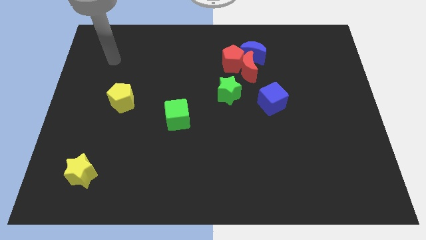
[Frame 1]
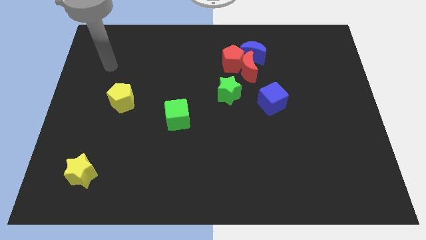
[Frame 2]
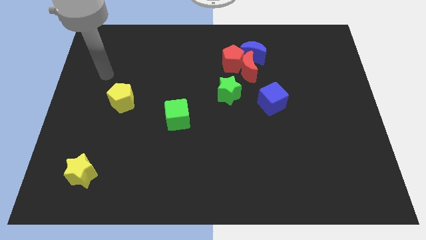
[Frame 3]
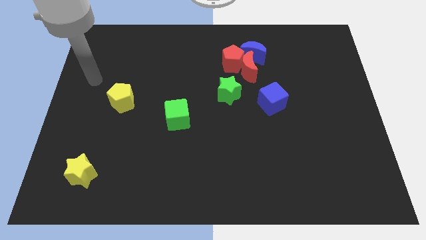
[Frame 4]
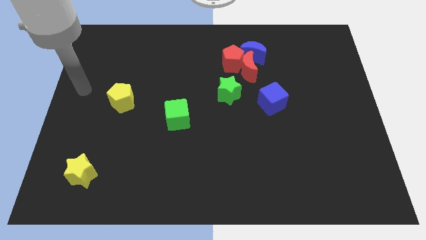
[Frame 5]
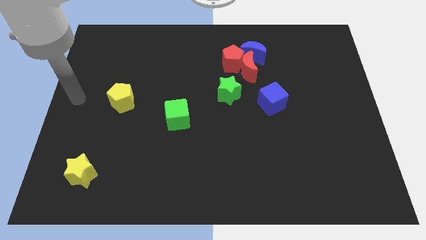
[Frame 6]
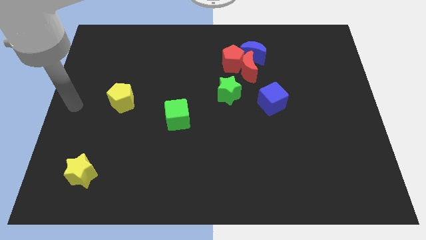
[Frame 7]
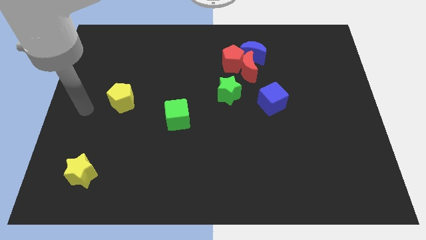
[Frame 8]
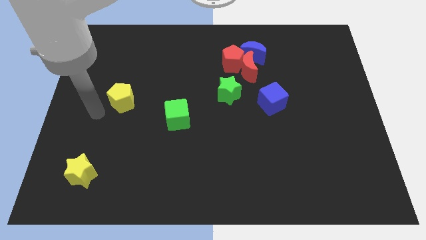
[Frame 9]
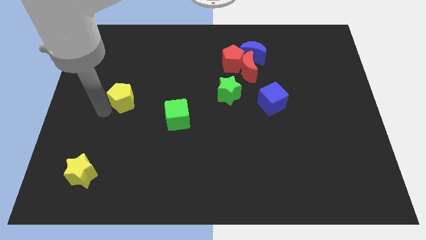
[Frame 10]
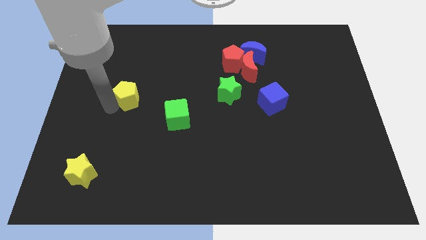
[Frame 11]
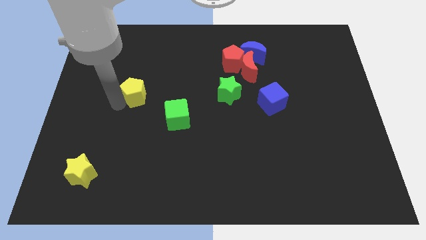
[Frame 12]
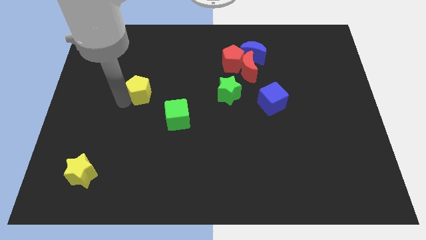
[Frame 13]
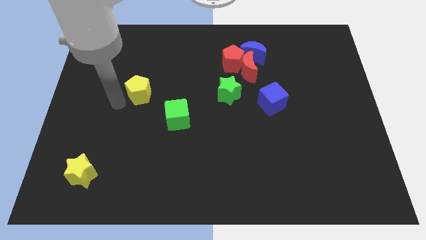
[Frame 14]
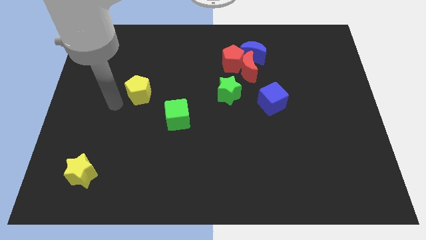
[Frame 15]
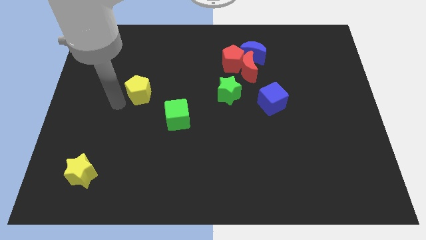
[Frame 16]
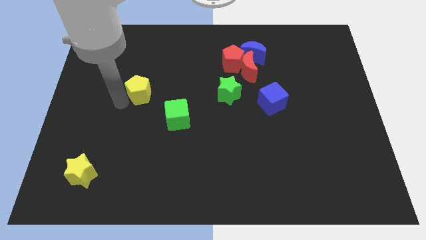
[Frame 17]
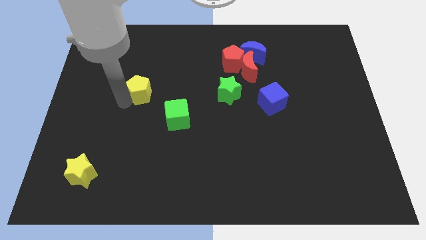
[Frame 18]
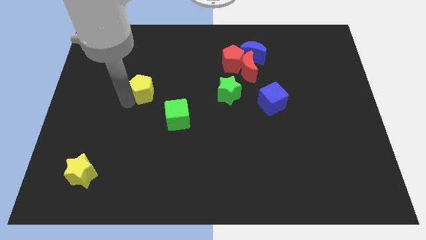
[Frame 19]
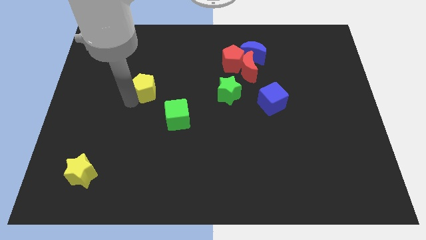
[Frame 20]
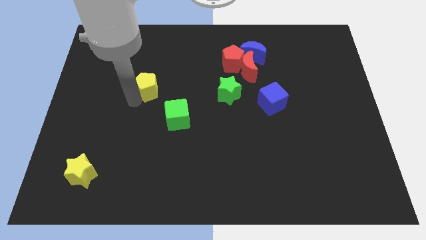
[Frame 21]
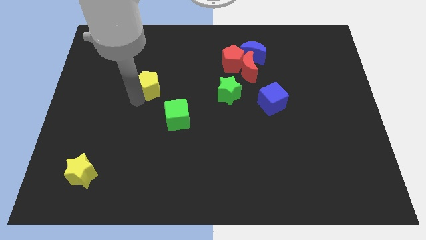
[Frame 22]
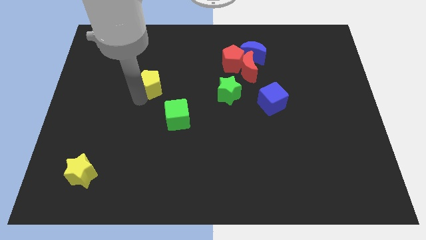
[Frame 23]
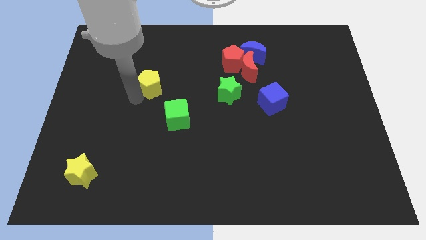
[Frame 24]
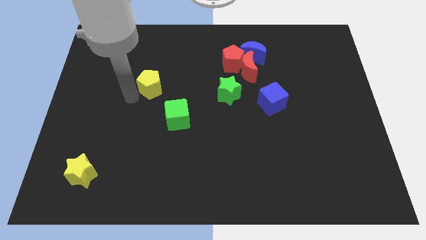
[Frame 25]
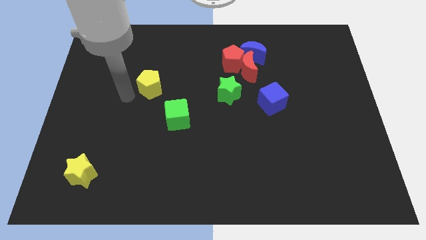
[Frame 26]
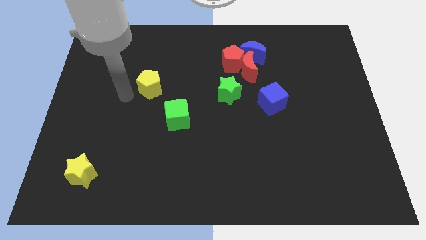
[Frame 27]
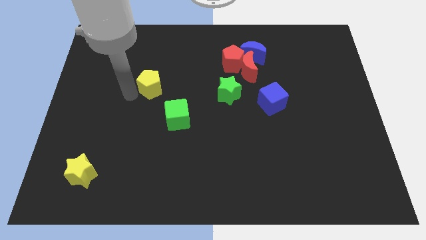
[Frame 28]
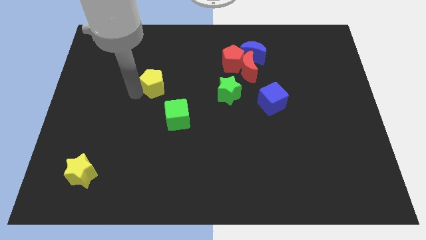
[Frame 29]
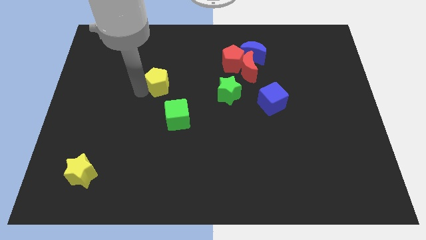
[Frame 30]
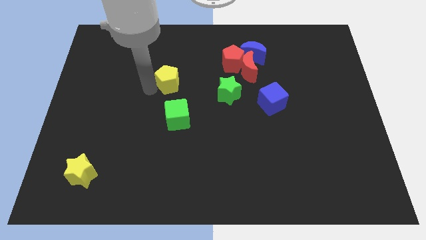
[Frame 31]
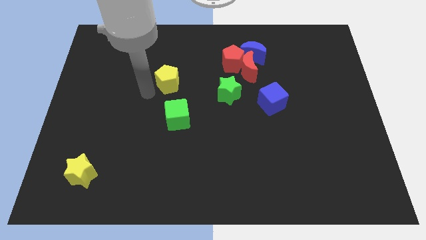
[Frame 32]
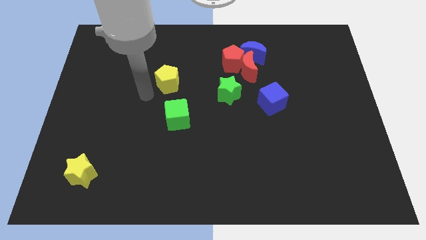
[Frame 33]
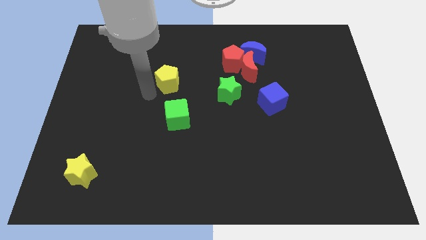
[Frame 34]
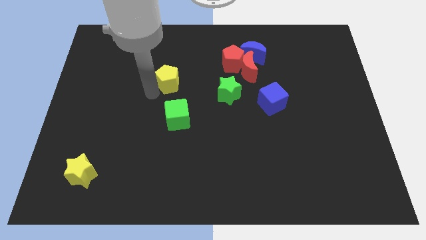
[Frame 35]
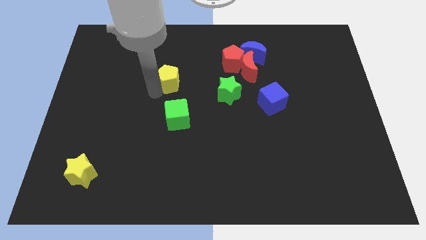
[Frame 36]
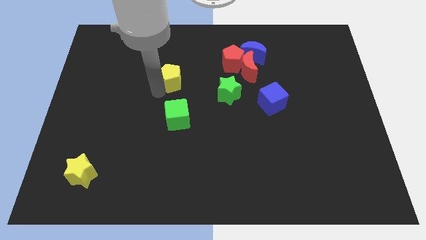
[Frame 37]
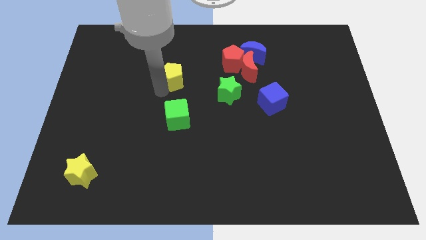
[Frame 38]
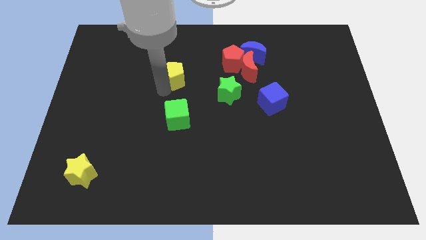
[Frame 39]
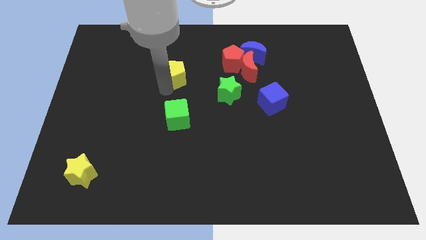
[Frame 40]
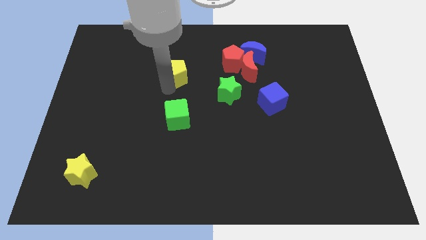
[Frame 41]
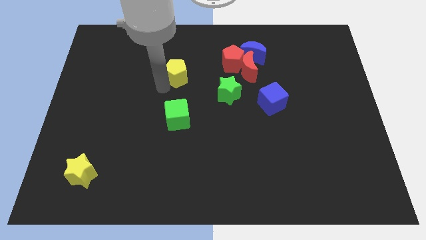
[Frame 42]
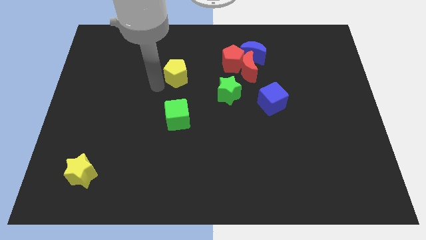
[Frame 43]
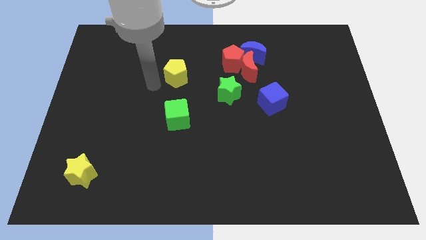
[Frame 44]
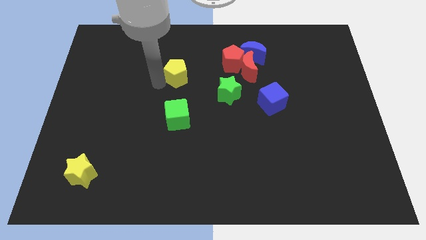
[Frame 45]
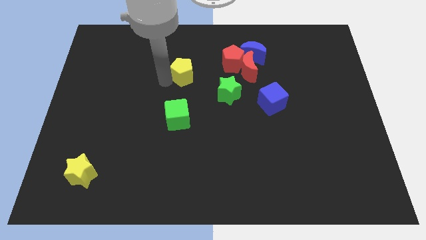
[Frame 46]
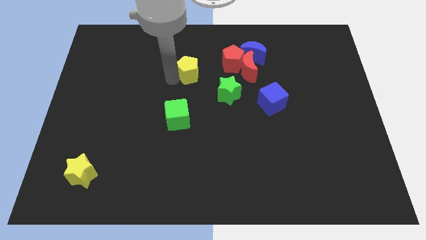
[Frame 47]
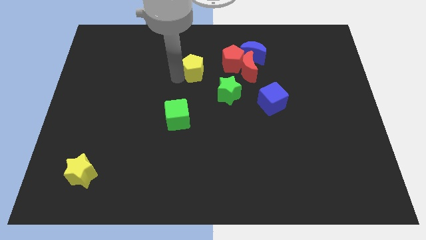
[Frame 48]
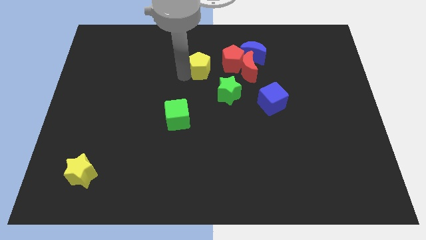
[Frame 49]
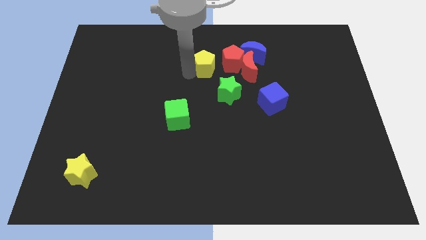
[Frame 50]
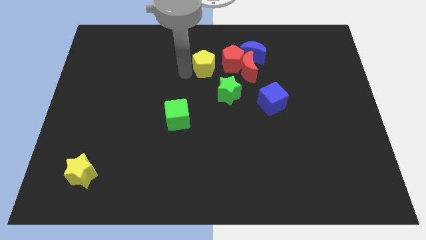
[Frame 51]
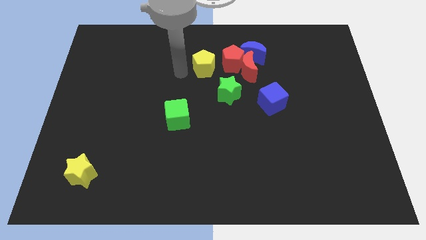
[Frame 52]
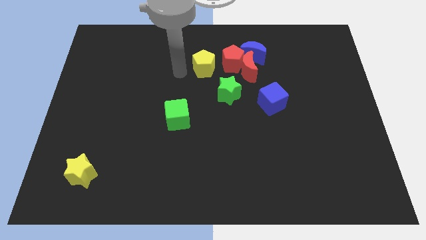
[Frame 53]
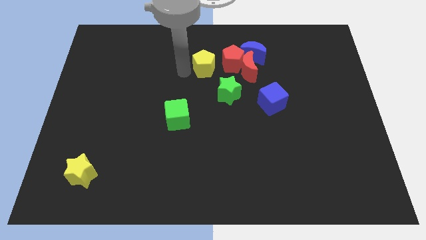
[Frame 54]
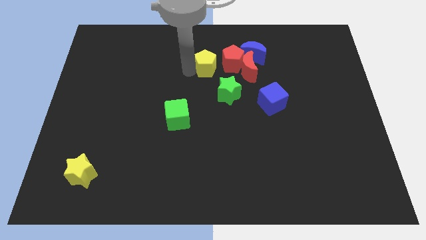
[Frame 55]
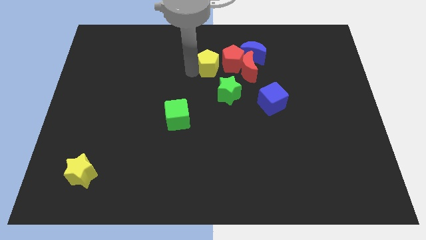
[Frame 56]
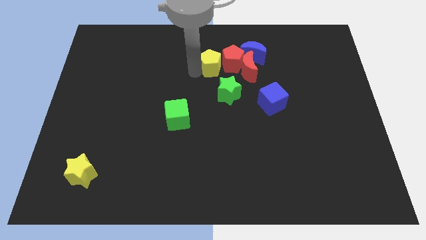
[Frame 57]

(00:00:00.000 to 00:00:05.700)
put the yellow pentagon next to the red pentagon

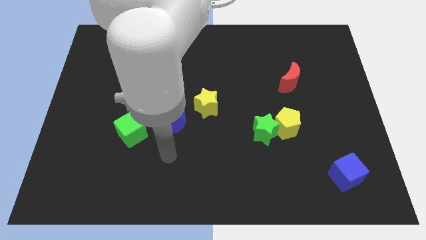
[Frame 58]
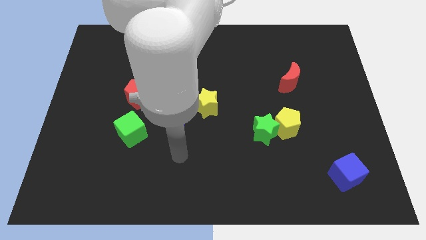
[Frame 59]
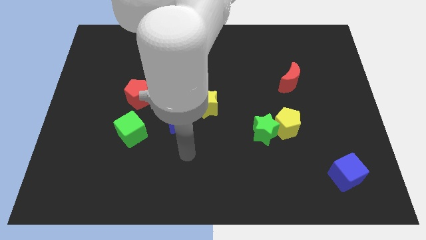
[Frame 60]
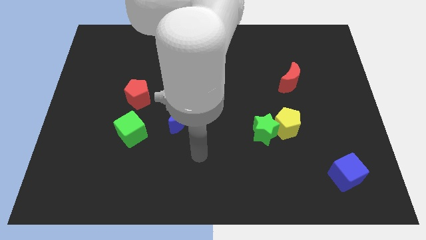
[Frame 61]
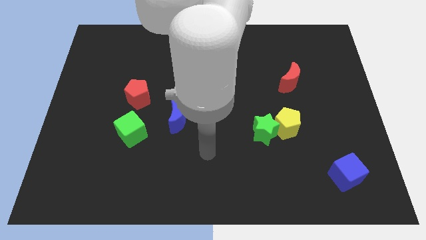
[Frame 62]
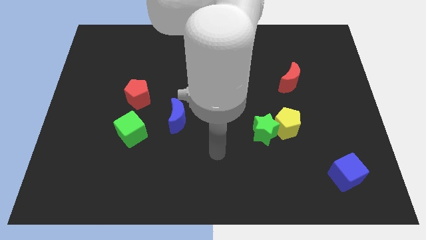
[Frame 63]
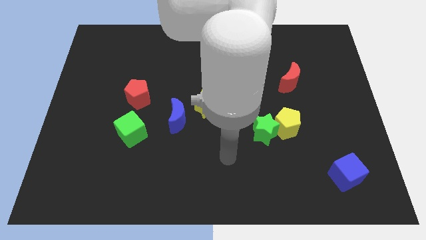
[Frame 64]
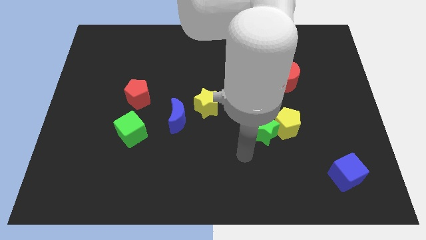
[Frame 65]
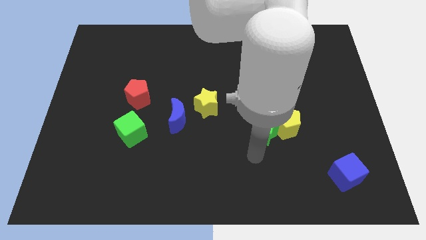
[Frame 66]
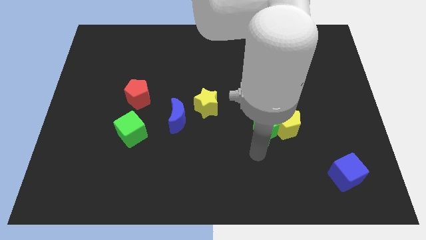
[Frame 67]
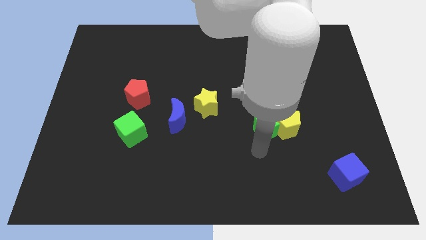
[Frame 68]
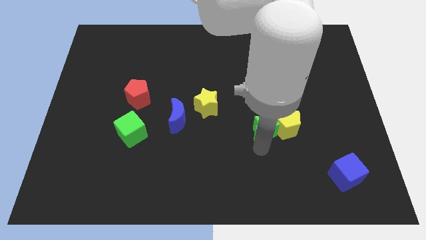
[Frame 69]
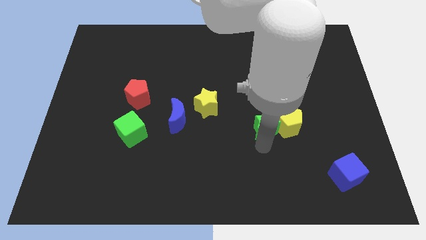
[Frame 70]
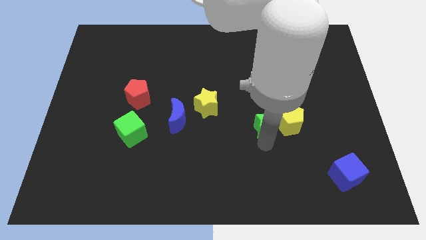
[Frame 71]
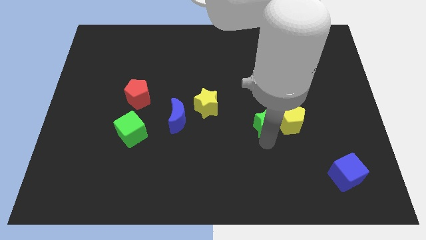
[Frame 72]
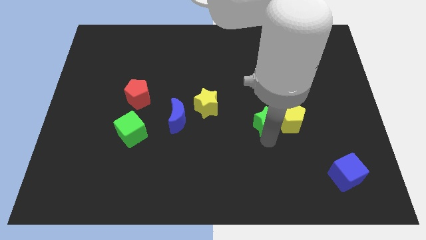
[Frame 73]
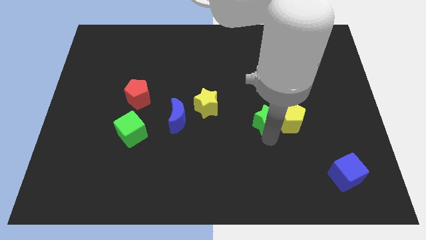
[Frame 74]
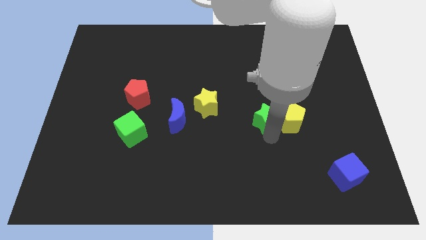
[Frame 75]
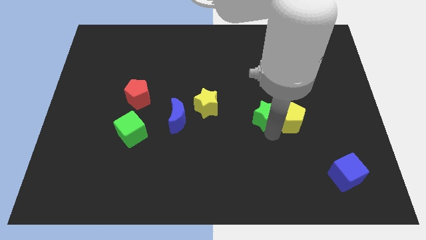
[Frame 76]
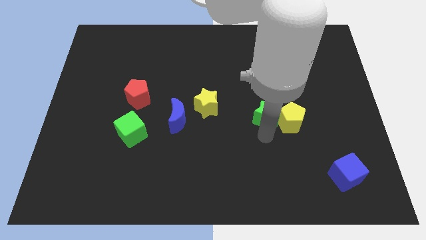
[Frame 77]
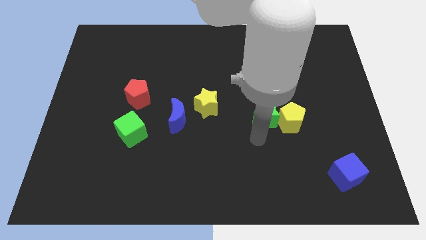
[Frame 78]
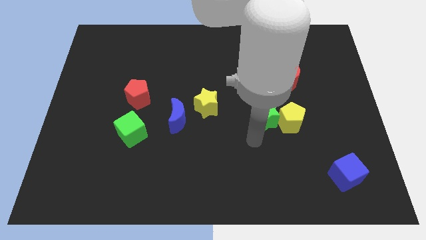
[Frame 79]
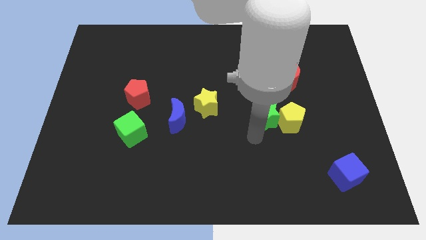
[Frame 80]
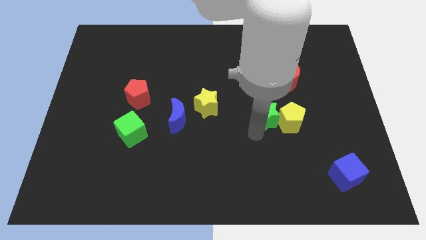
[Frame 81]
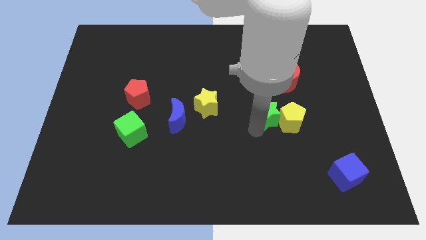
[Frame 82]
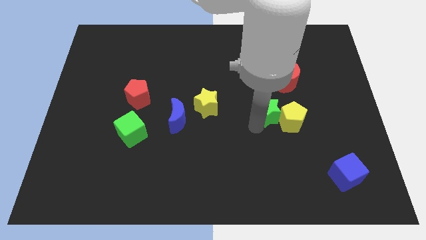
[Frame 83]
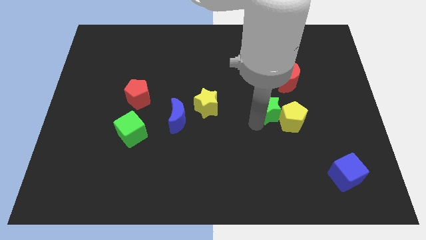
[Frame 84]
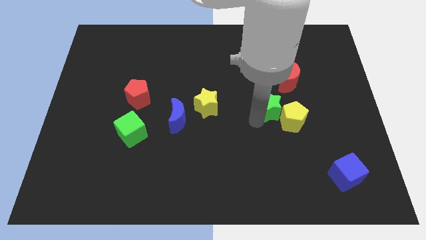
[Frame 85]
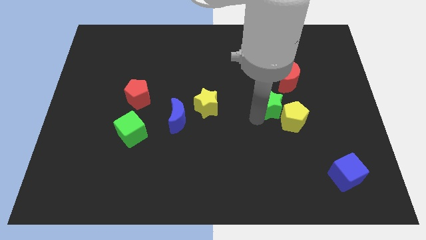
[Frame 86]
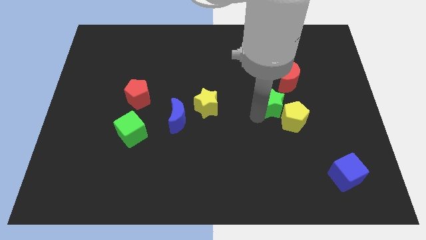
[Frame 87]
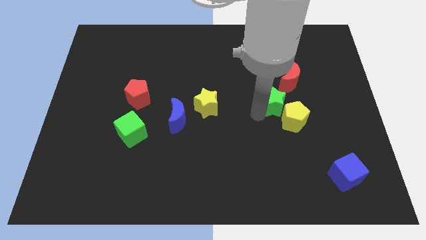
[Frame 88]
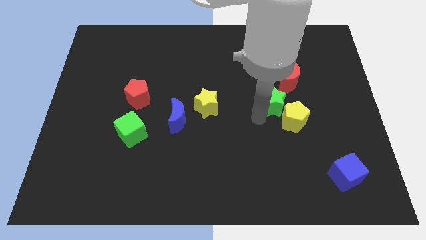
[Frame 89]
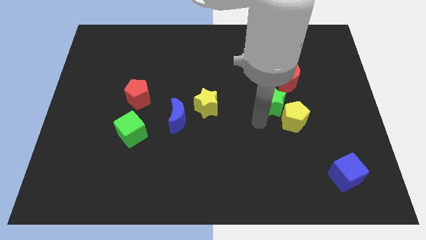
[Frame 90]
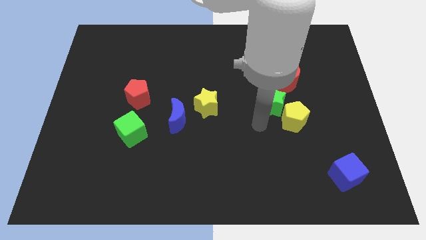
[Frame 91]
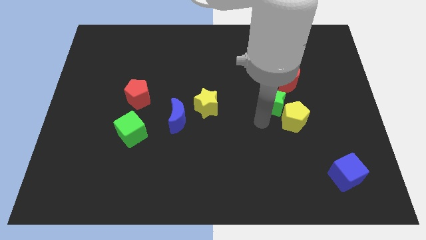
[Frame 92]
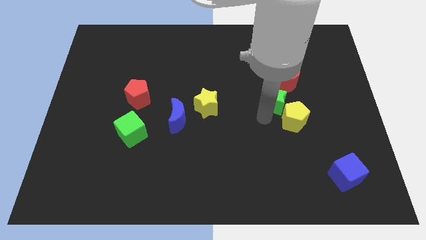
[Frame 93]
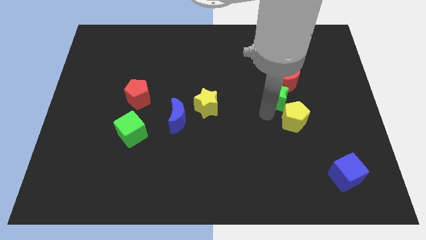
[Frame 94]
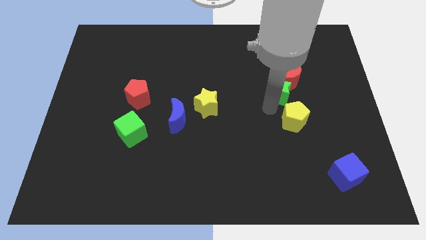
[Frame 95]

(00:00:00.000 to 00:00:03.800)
put the green star next to the red moon
